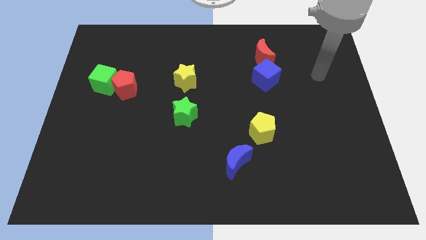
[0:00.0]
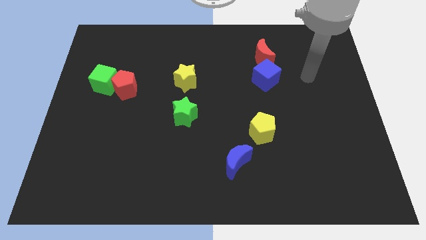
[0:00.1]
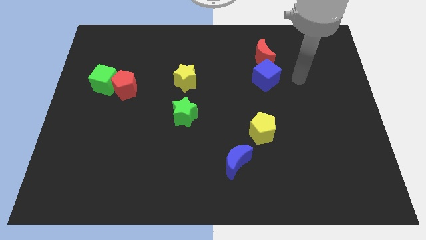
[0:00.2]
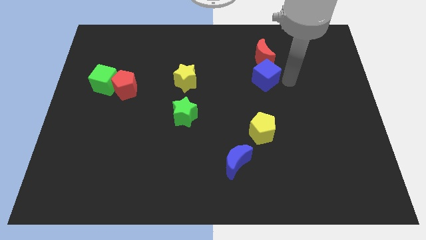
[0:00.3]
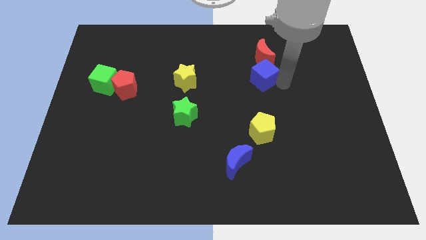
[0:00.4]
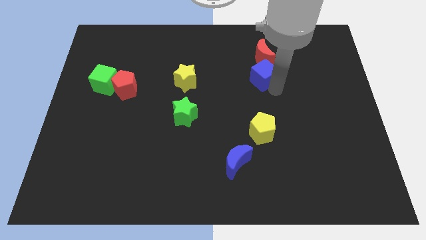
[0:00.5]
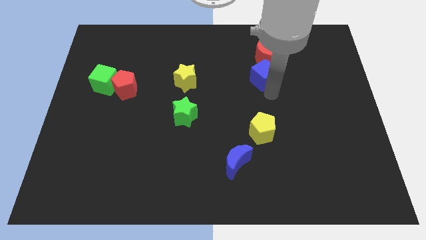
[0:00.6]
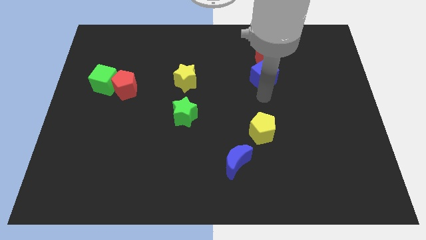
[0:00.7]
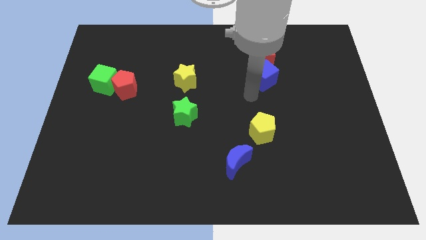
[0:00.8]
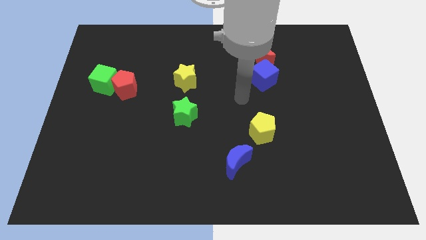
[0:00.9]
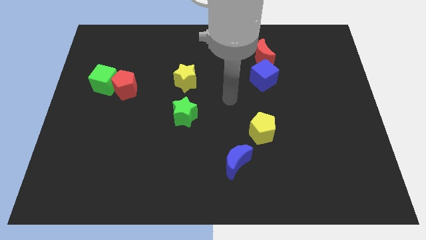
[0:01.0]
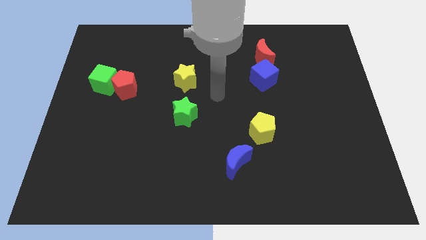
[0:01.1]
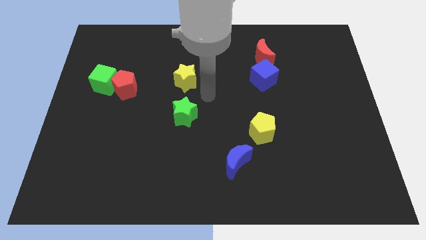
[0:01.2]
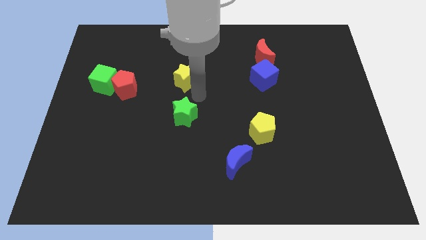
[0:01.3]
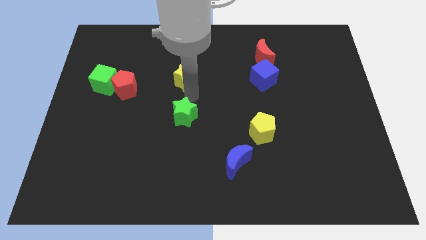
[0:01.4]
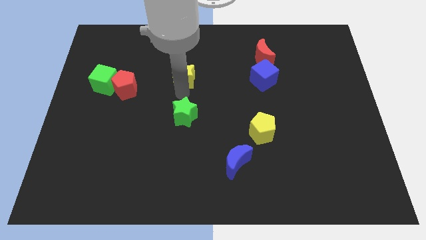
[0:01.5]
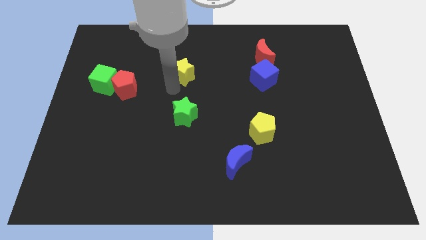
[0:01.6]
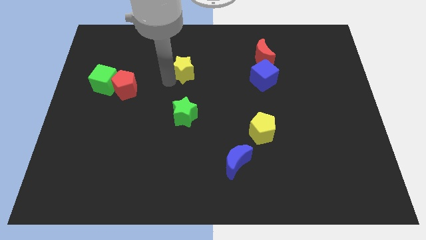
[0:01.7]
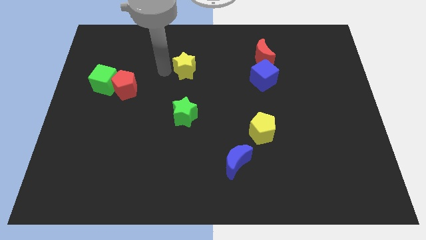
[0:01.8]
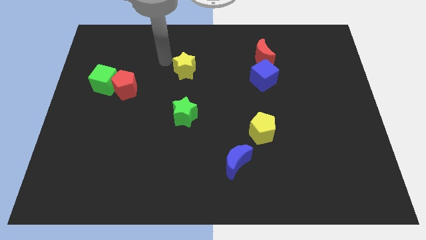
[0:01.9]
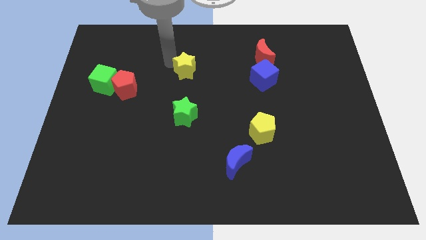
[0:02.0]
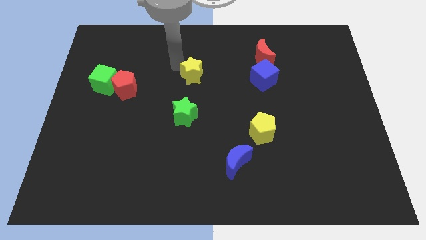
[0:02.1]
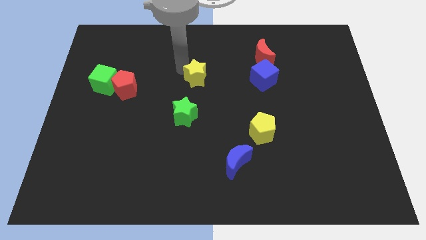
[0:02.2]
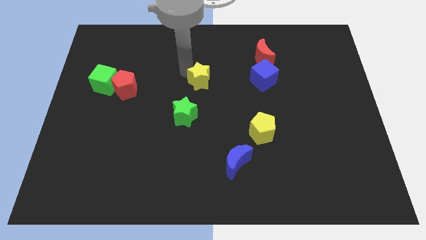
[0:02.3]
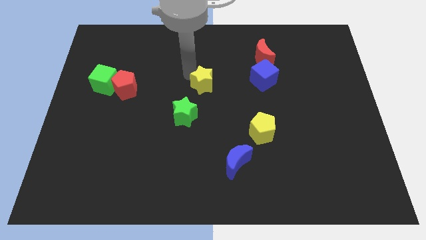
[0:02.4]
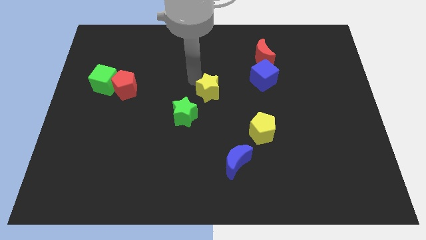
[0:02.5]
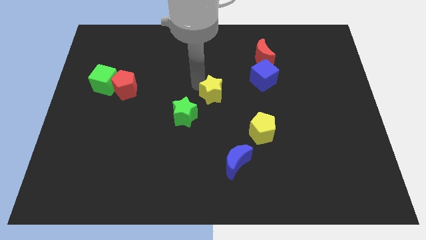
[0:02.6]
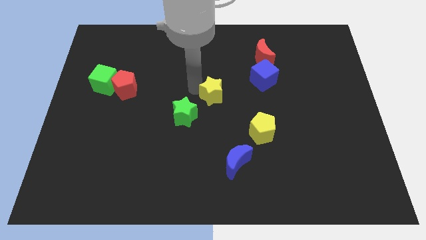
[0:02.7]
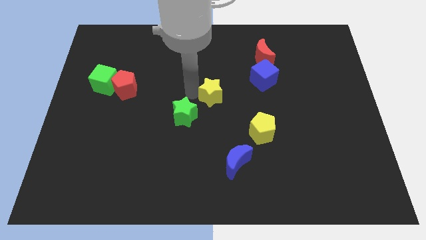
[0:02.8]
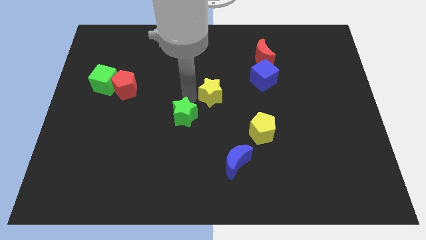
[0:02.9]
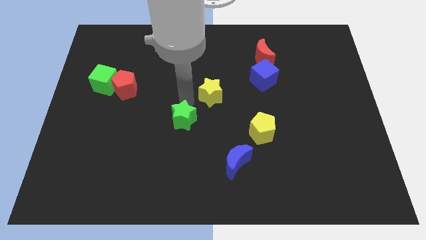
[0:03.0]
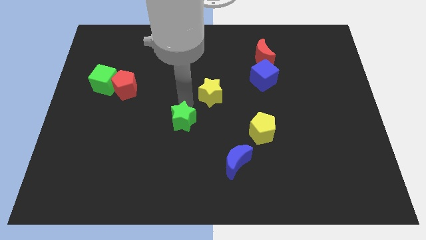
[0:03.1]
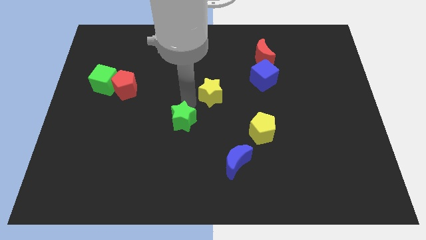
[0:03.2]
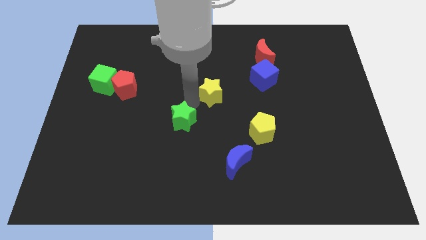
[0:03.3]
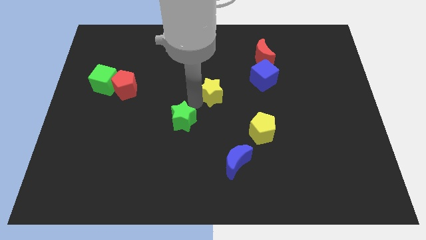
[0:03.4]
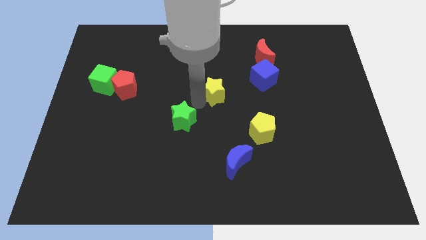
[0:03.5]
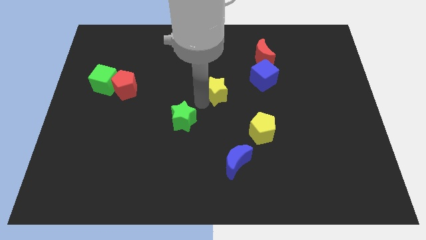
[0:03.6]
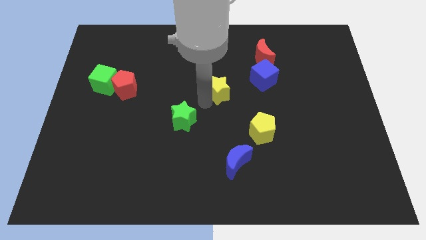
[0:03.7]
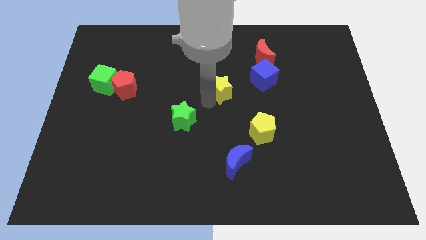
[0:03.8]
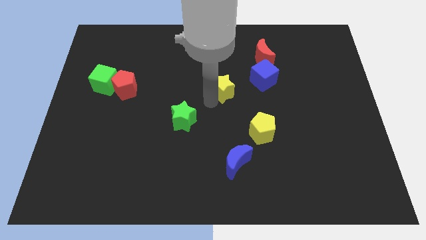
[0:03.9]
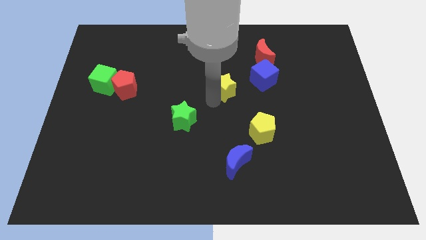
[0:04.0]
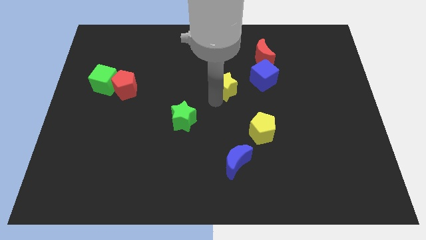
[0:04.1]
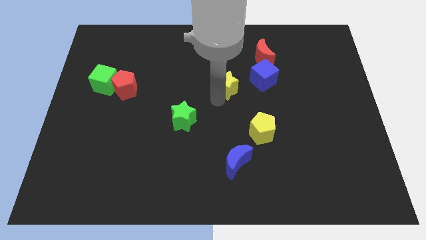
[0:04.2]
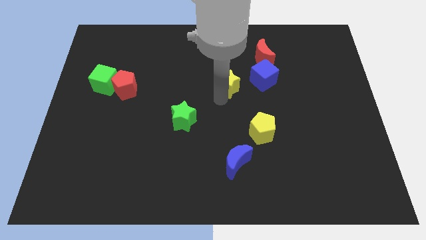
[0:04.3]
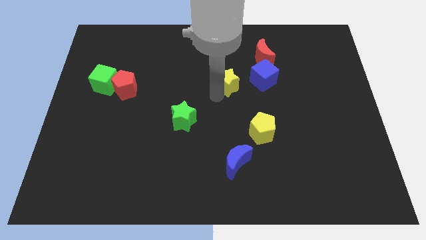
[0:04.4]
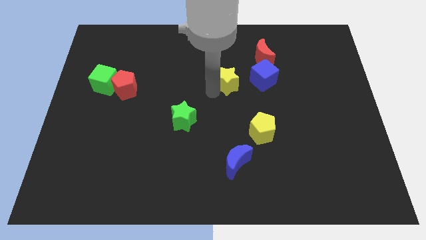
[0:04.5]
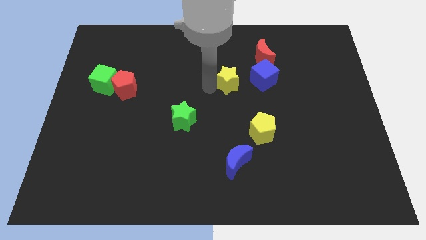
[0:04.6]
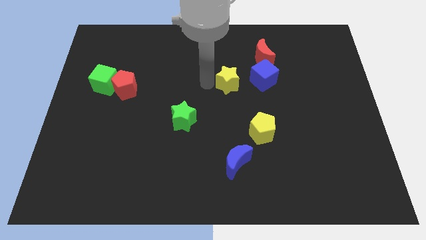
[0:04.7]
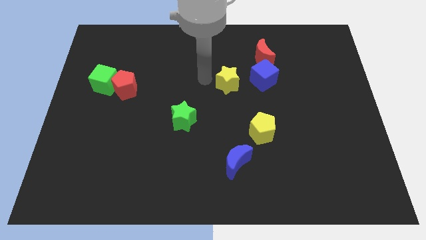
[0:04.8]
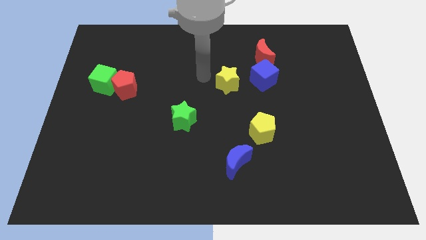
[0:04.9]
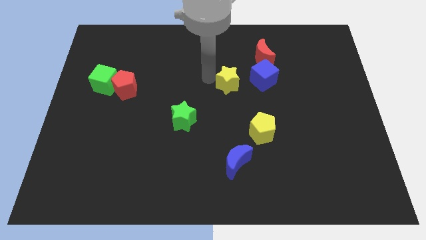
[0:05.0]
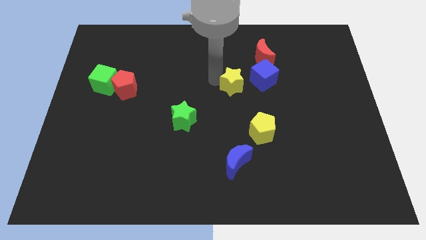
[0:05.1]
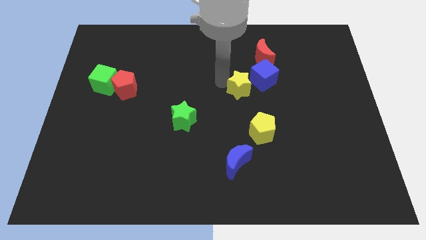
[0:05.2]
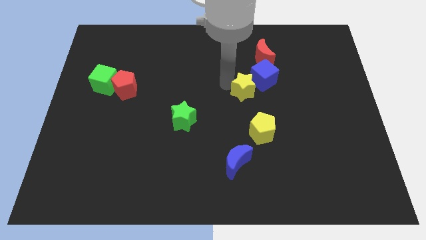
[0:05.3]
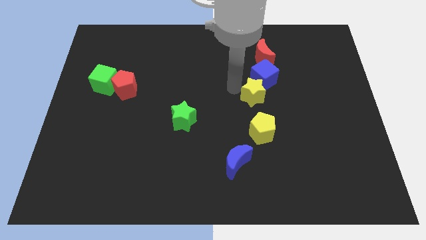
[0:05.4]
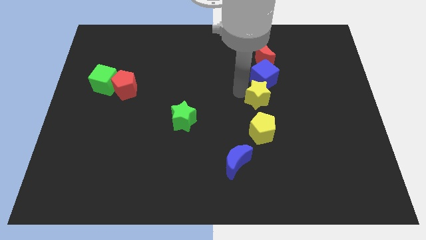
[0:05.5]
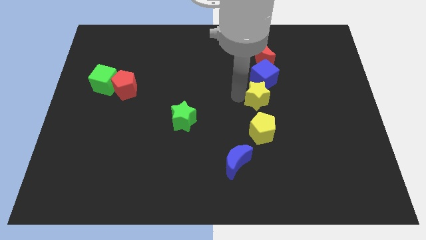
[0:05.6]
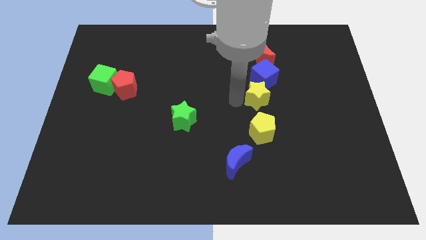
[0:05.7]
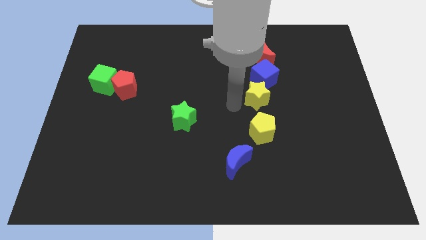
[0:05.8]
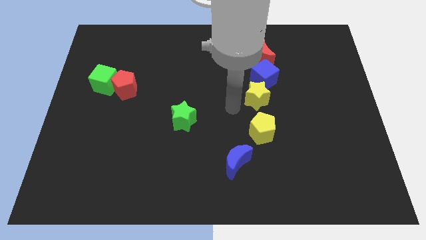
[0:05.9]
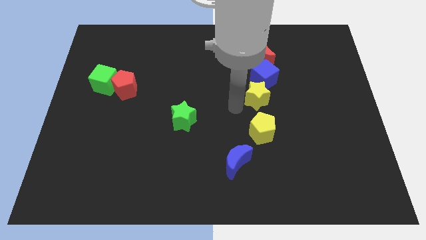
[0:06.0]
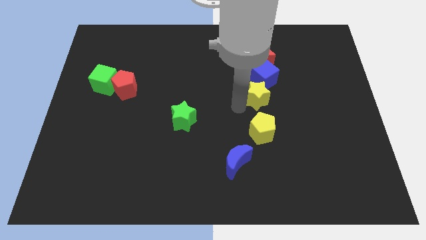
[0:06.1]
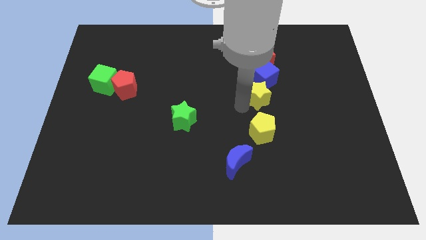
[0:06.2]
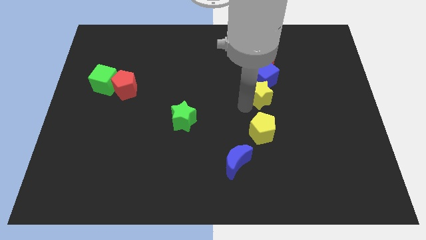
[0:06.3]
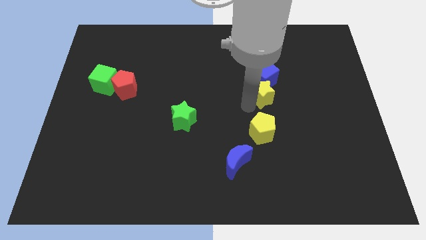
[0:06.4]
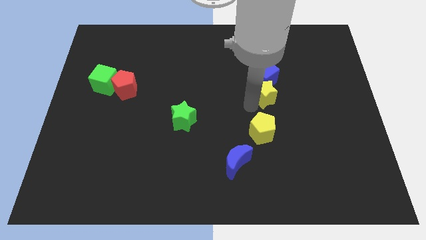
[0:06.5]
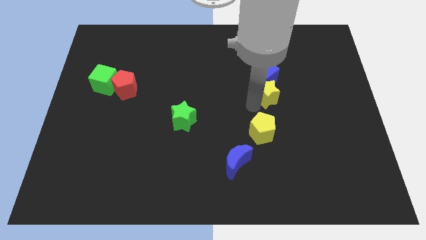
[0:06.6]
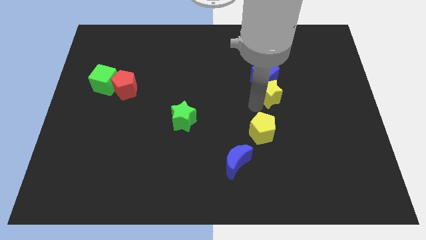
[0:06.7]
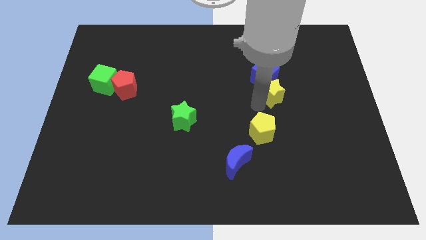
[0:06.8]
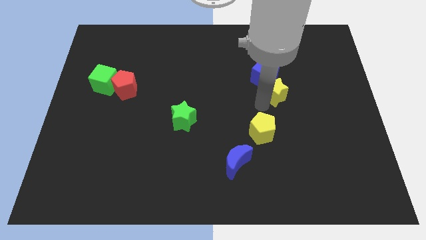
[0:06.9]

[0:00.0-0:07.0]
slide the yellow star to the right

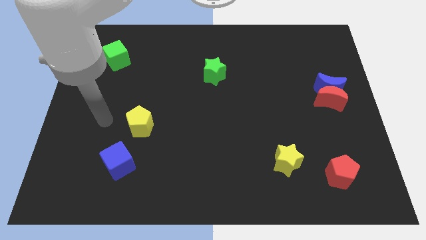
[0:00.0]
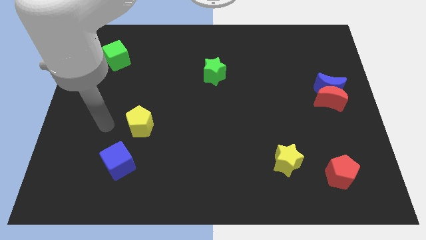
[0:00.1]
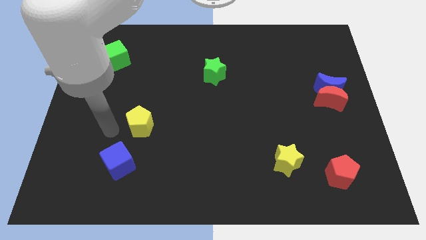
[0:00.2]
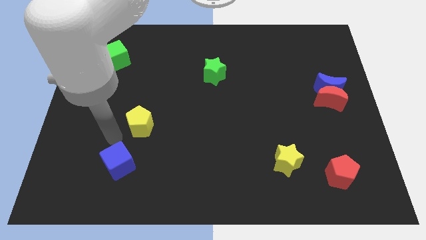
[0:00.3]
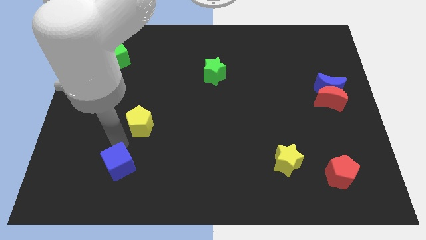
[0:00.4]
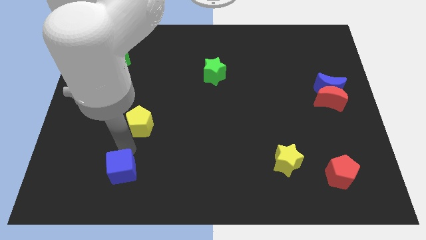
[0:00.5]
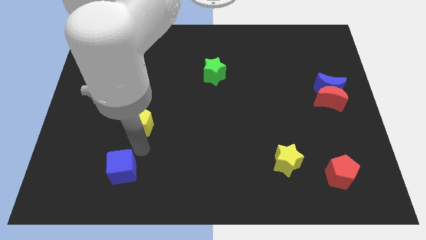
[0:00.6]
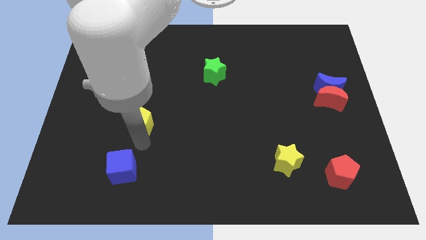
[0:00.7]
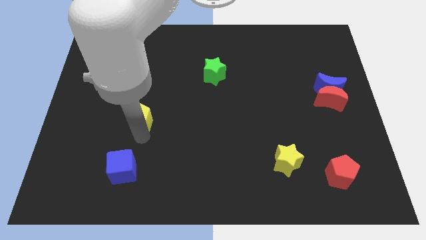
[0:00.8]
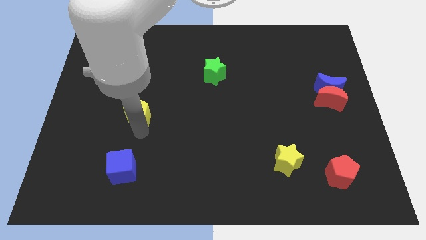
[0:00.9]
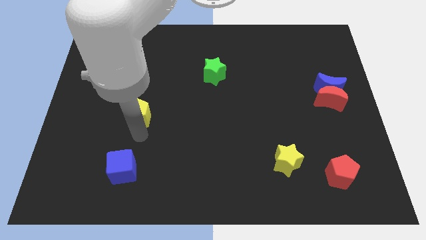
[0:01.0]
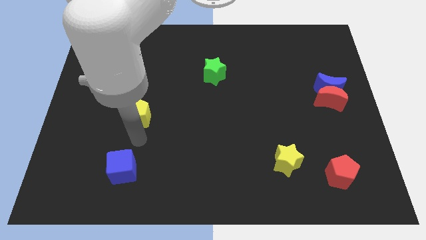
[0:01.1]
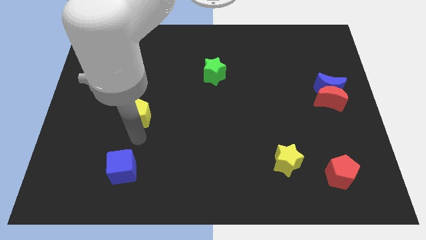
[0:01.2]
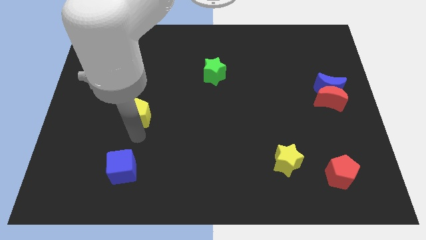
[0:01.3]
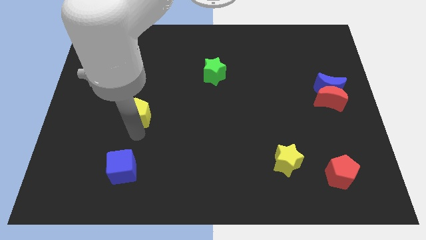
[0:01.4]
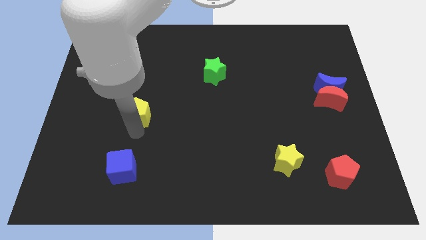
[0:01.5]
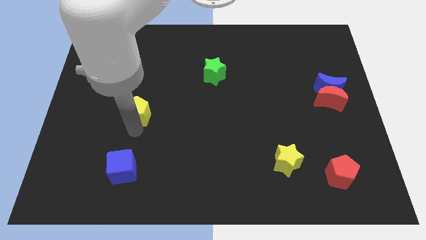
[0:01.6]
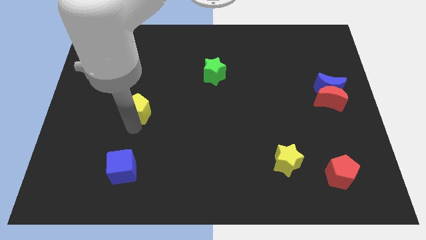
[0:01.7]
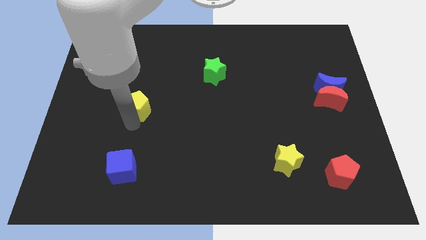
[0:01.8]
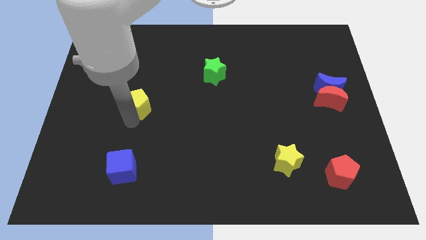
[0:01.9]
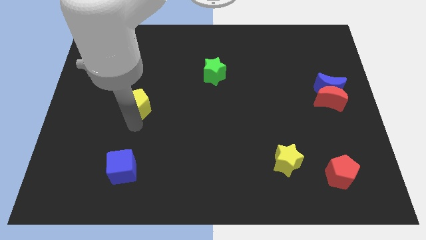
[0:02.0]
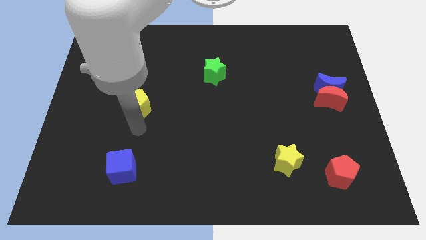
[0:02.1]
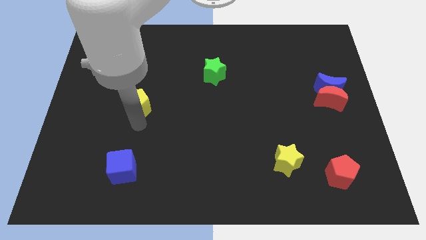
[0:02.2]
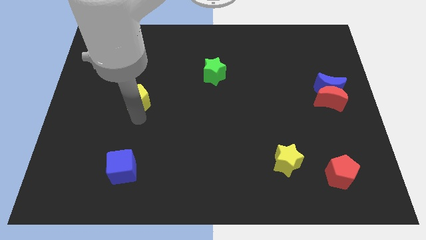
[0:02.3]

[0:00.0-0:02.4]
slightly slide the yellow pentagon up
